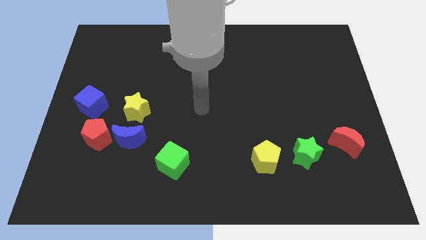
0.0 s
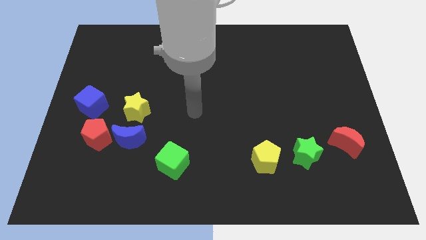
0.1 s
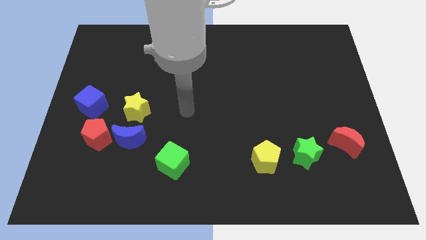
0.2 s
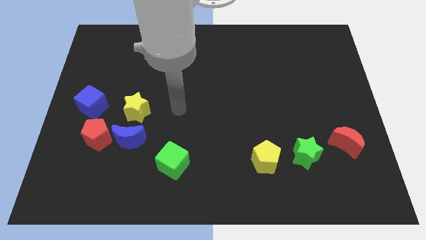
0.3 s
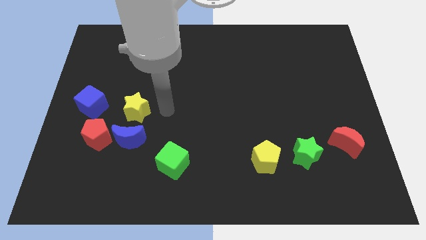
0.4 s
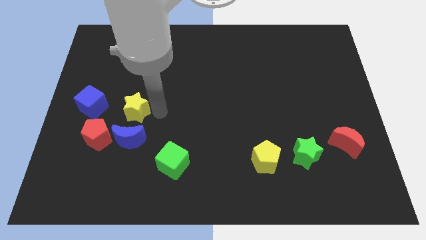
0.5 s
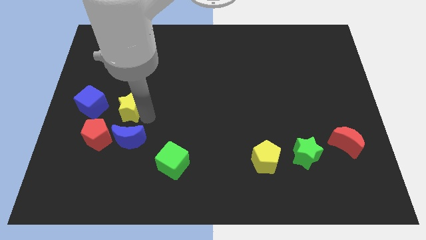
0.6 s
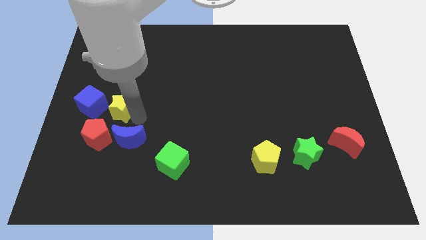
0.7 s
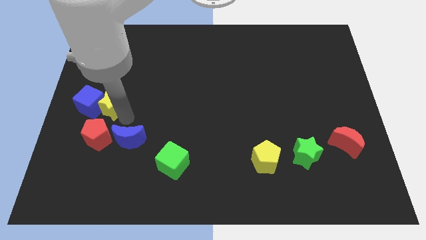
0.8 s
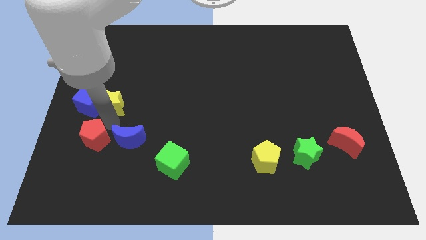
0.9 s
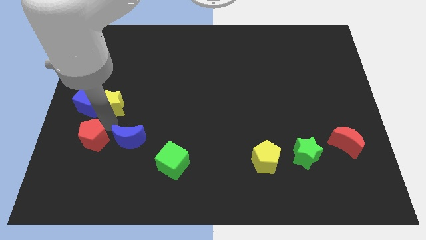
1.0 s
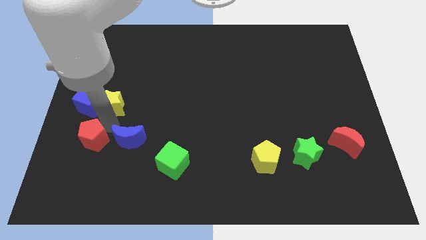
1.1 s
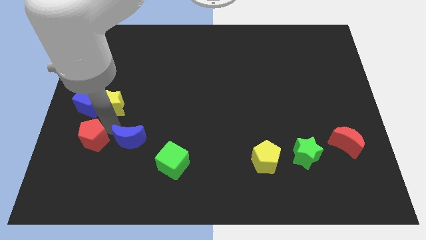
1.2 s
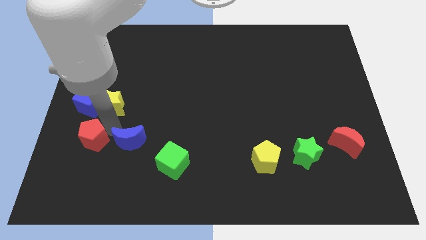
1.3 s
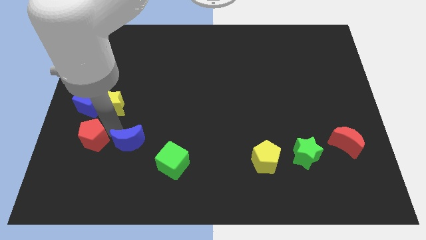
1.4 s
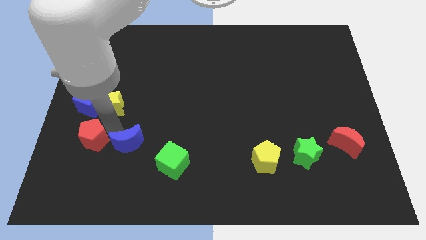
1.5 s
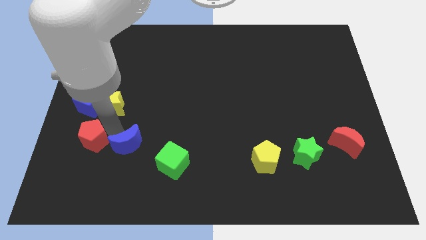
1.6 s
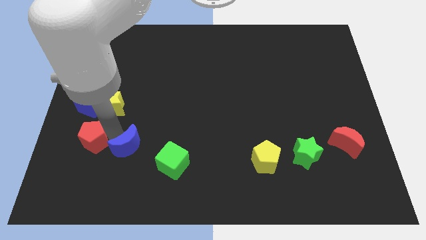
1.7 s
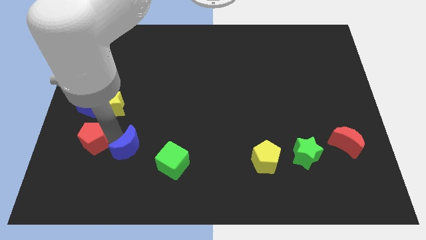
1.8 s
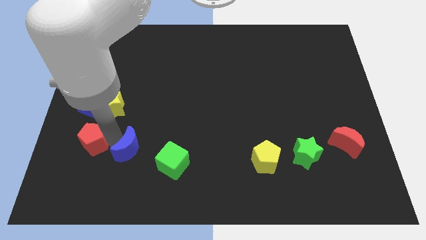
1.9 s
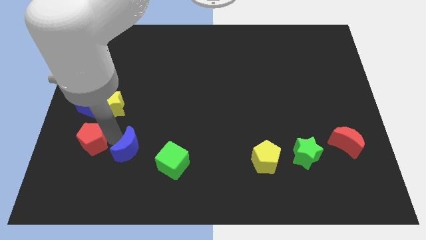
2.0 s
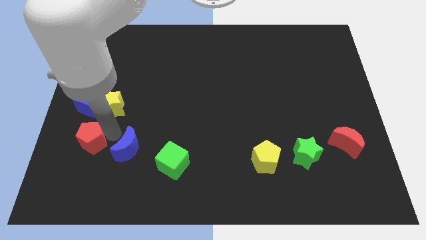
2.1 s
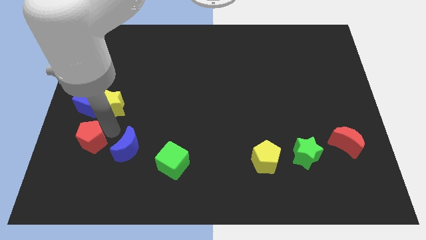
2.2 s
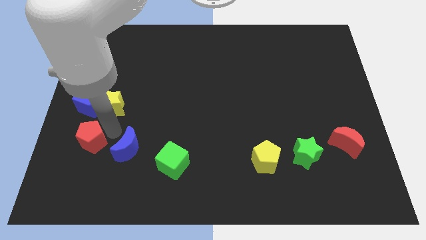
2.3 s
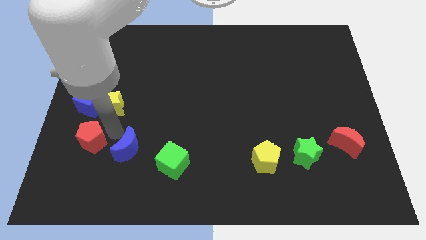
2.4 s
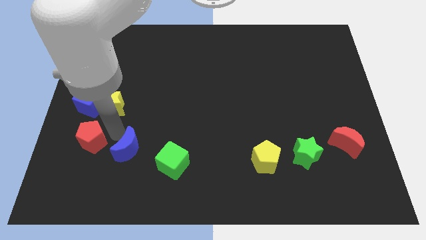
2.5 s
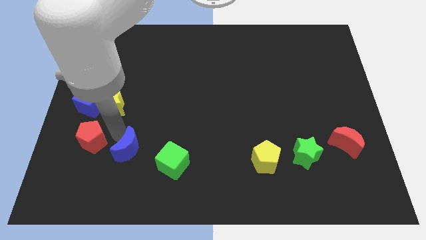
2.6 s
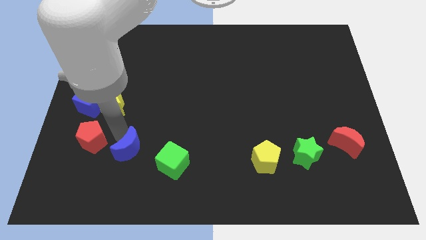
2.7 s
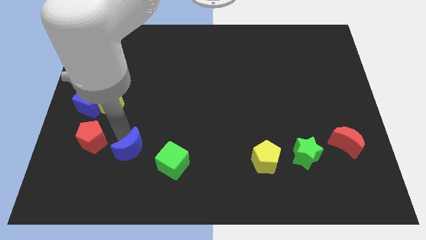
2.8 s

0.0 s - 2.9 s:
pull the blue moon apart from the red pentagon and yellow star

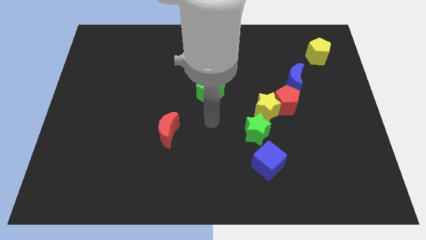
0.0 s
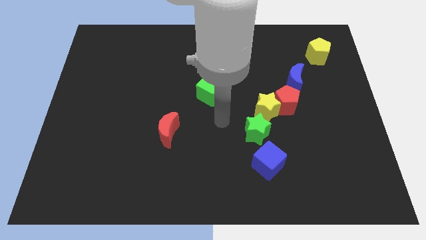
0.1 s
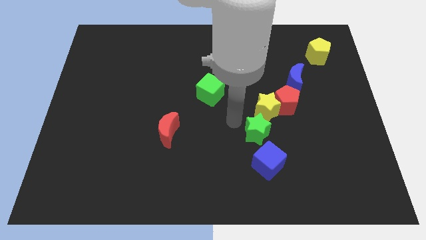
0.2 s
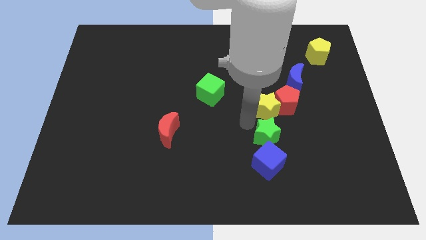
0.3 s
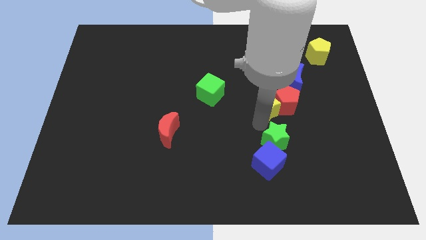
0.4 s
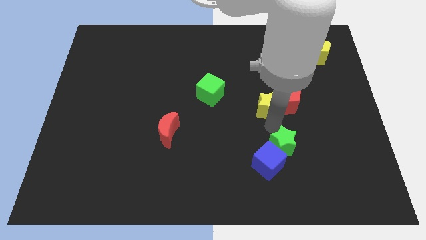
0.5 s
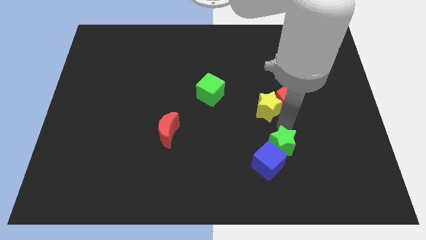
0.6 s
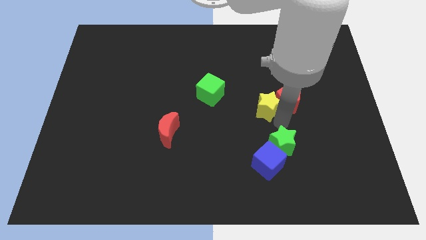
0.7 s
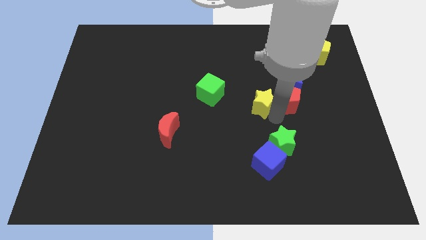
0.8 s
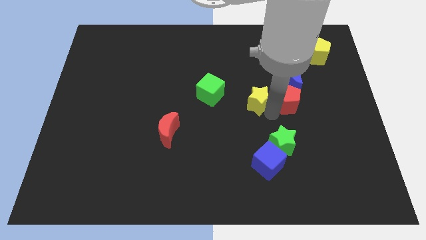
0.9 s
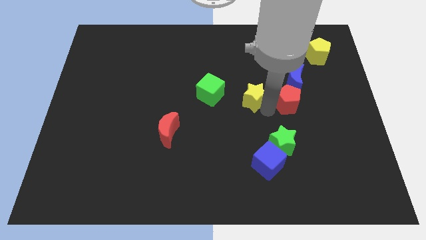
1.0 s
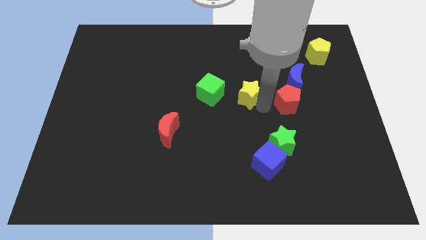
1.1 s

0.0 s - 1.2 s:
separate the yellow star from the red pentagon and green star

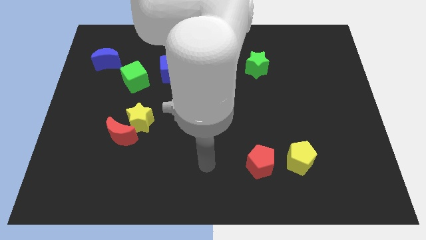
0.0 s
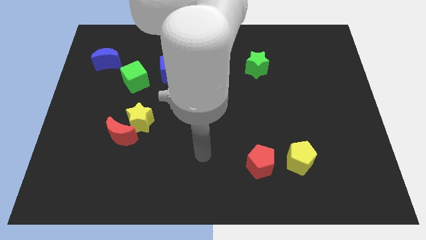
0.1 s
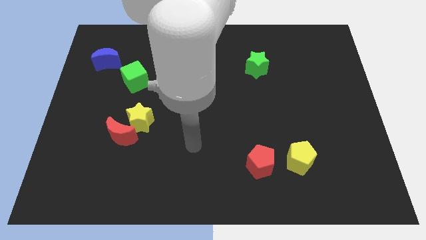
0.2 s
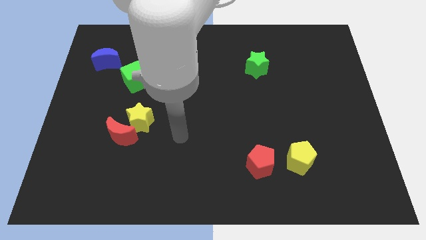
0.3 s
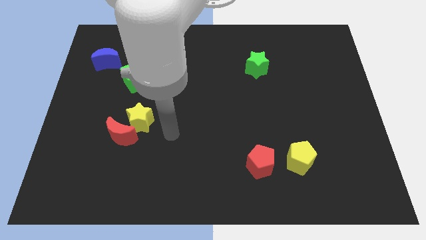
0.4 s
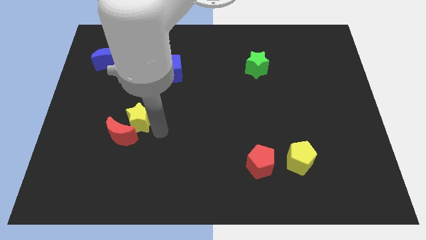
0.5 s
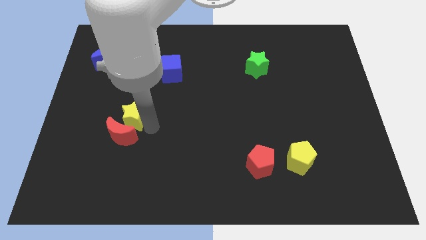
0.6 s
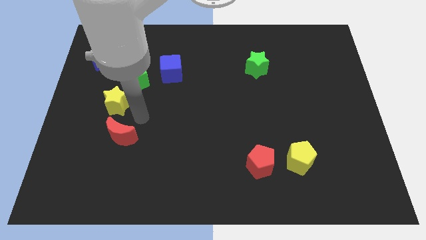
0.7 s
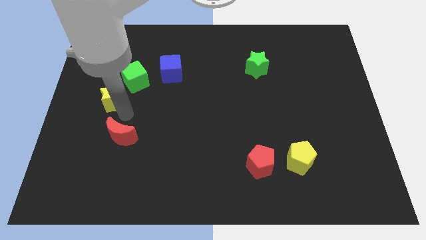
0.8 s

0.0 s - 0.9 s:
separate the red moon from the yellow star

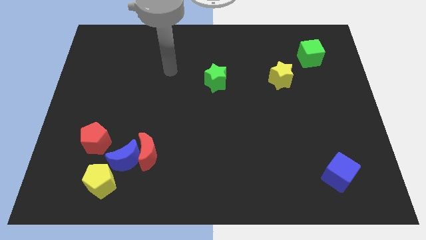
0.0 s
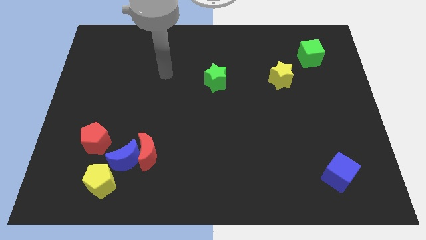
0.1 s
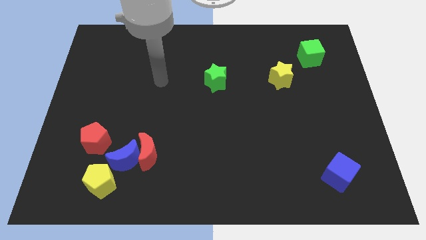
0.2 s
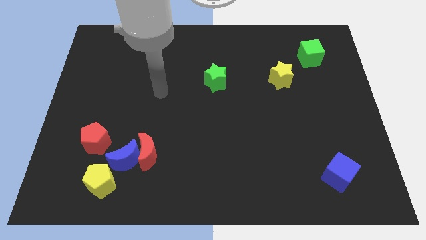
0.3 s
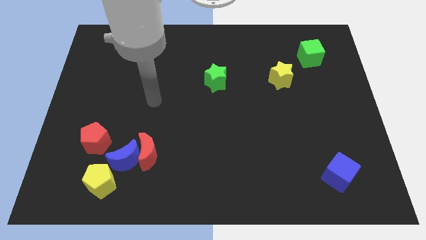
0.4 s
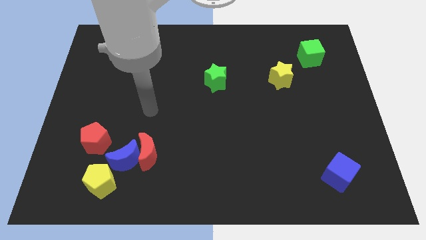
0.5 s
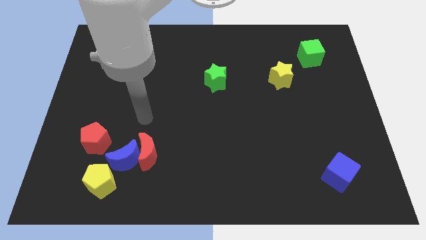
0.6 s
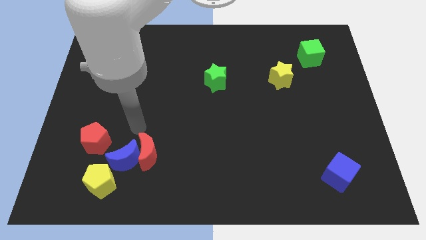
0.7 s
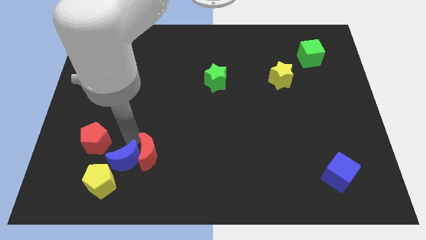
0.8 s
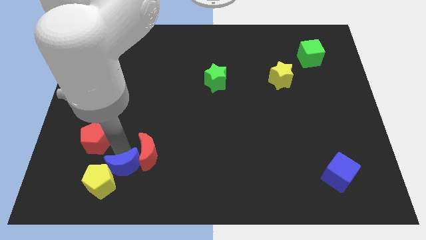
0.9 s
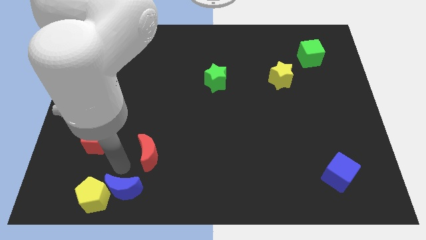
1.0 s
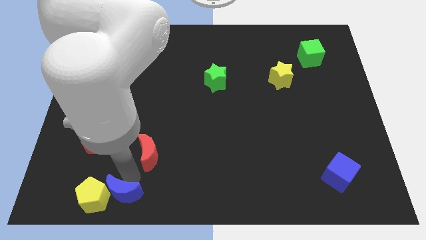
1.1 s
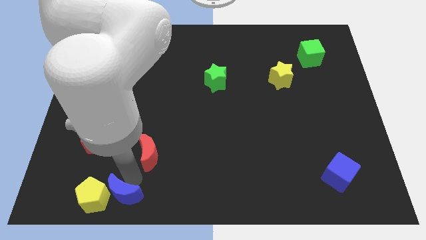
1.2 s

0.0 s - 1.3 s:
separate the red moon from the blue moon

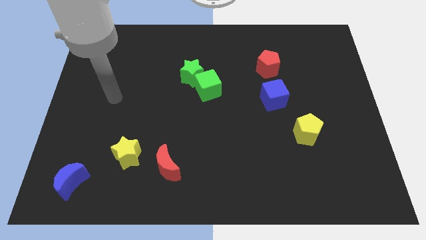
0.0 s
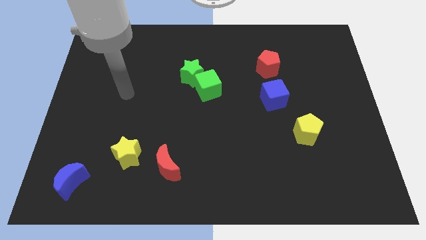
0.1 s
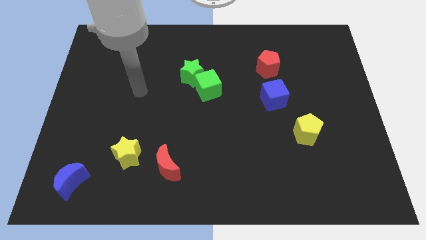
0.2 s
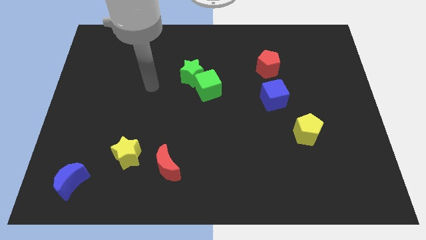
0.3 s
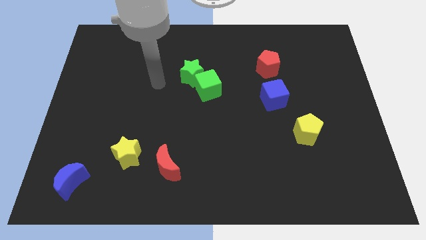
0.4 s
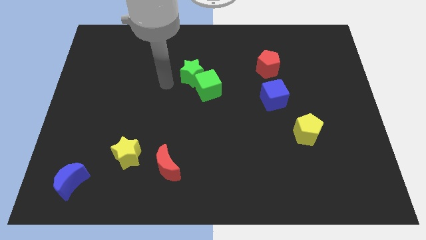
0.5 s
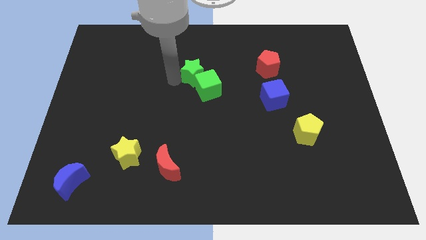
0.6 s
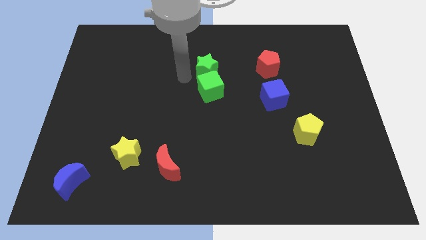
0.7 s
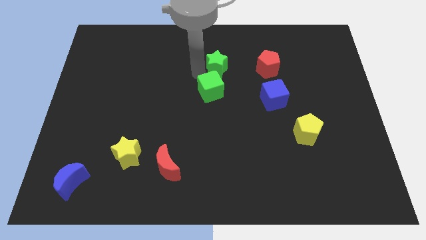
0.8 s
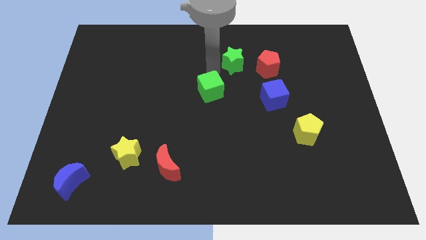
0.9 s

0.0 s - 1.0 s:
separate the green cube from the green star

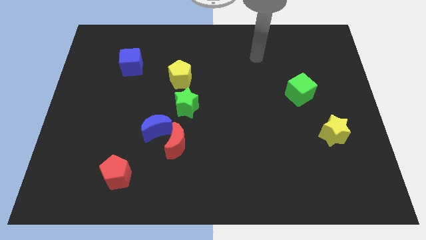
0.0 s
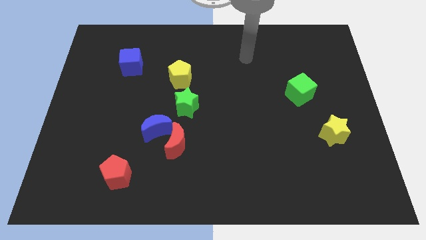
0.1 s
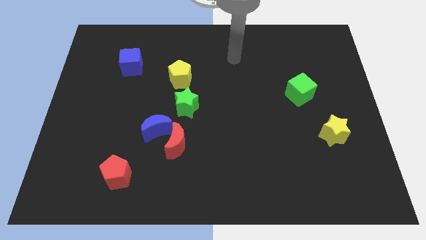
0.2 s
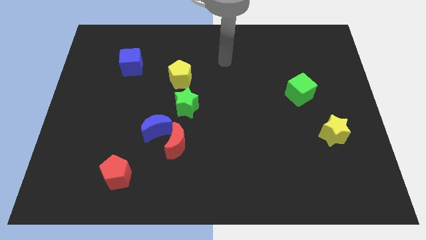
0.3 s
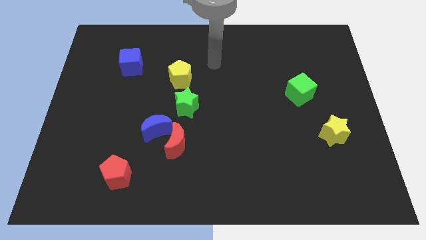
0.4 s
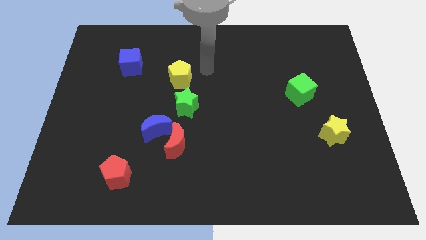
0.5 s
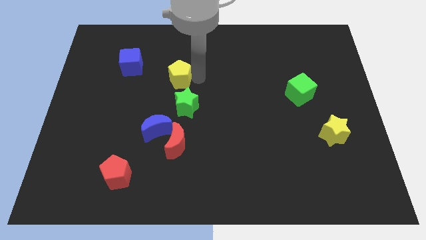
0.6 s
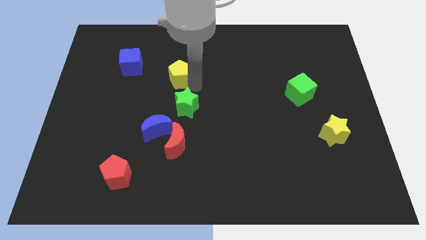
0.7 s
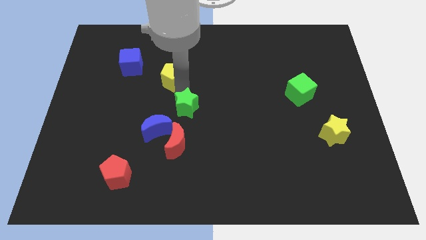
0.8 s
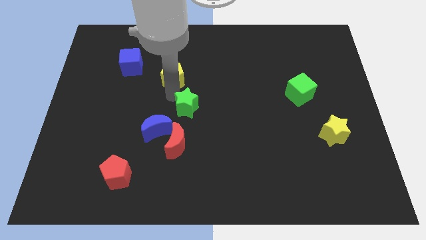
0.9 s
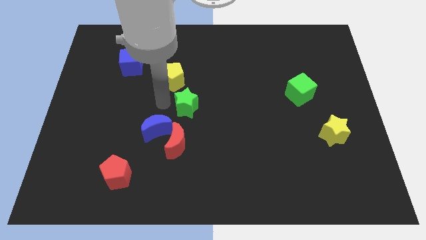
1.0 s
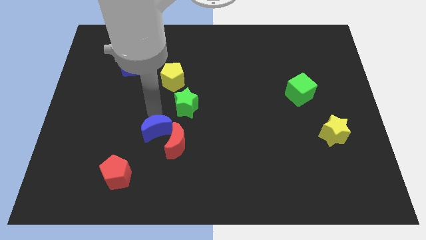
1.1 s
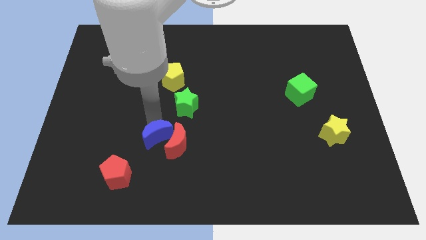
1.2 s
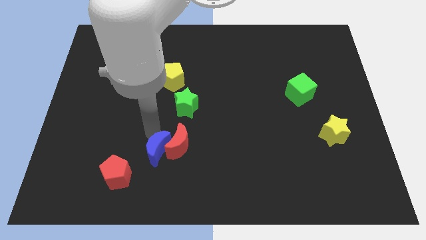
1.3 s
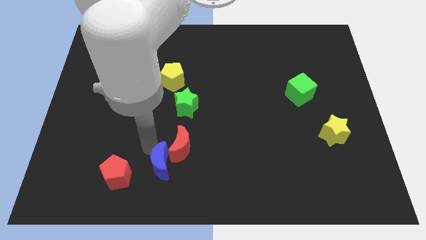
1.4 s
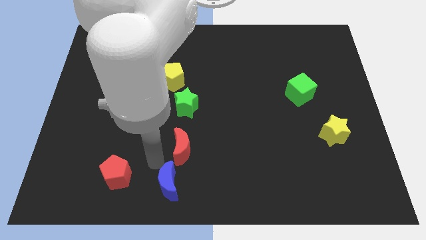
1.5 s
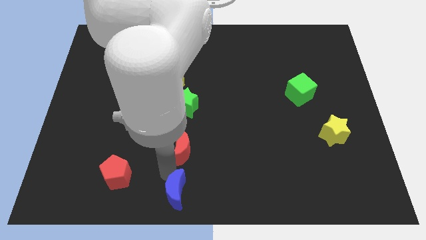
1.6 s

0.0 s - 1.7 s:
move the red moon away from the blue moon

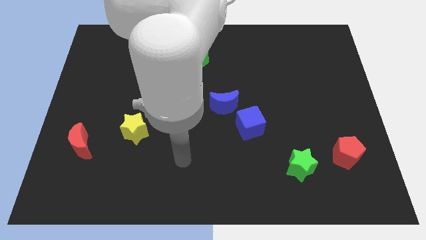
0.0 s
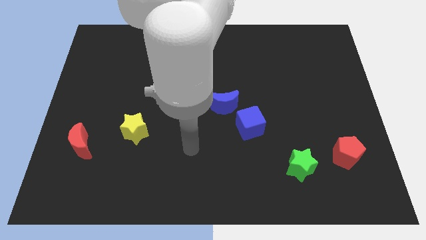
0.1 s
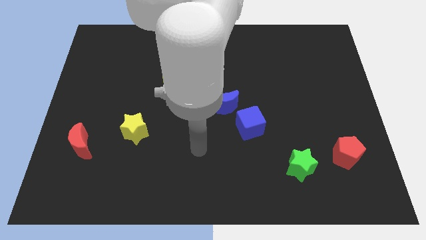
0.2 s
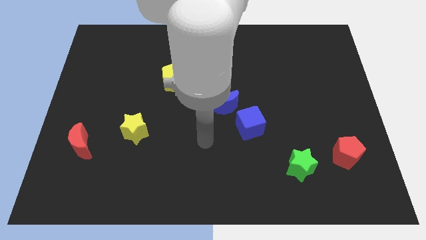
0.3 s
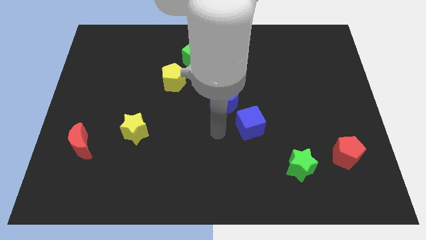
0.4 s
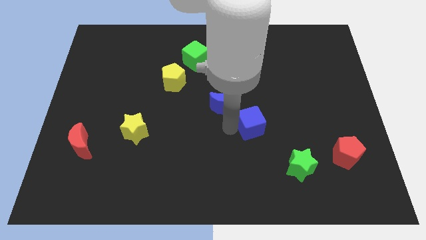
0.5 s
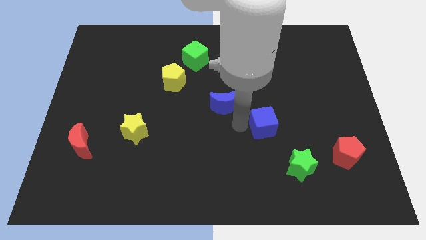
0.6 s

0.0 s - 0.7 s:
move the blue moon away from the blue cube
